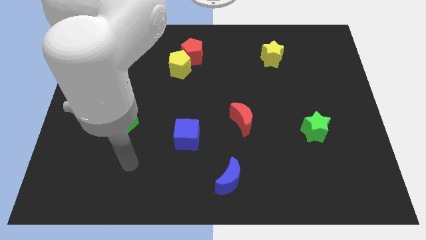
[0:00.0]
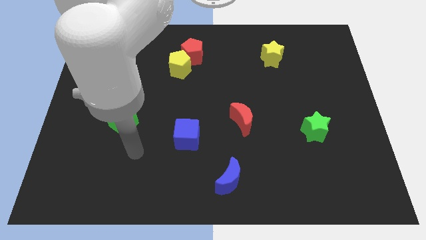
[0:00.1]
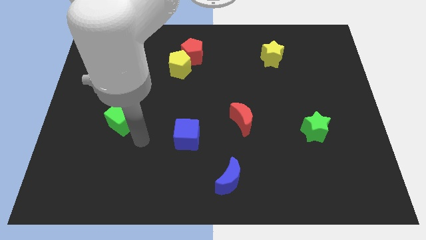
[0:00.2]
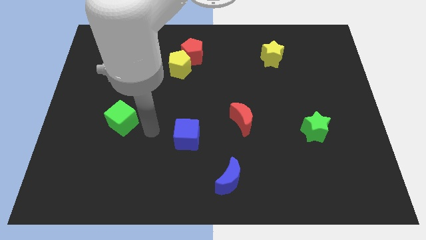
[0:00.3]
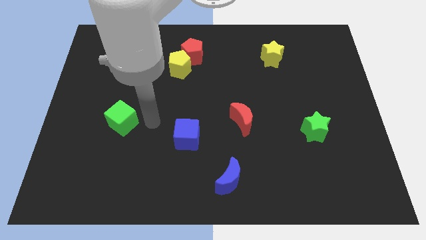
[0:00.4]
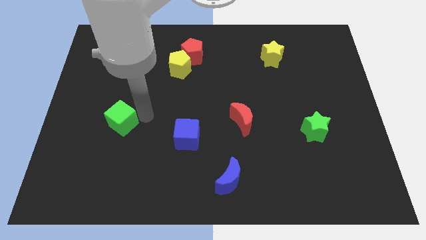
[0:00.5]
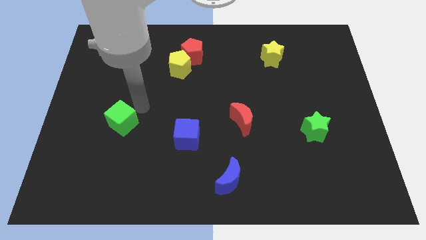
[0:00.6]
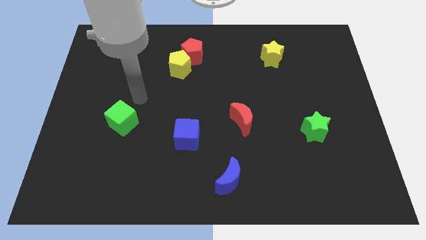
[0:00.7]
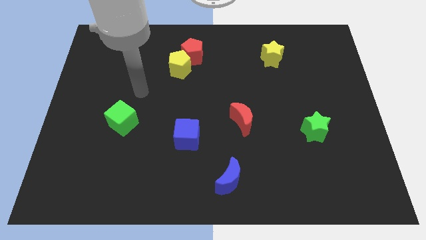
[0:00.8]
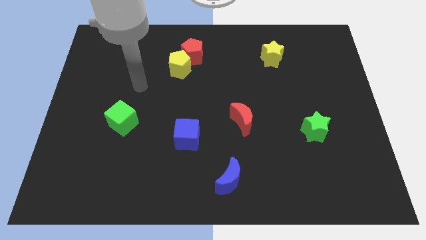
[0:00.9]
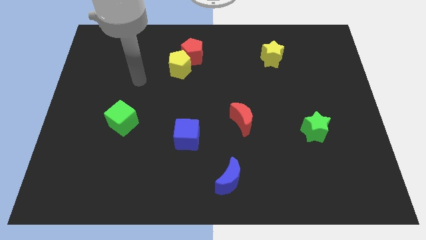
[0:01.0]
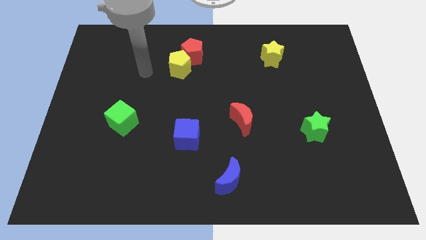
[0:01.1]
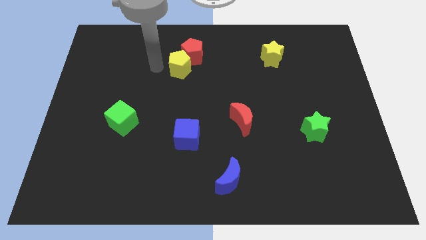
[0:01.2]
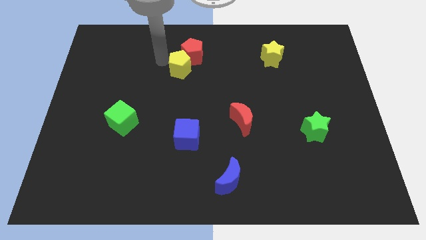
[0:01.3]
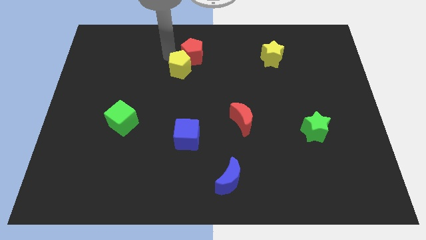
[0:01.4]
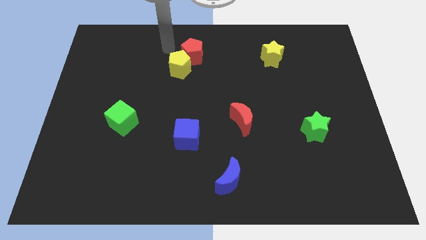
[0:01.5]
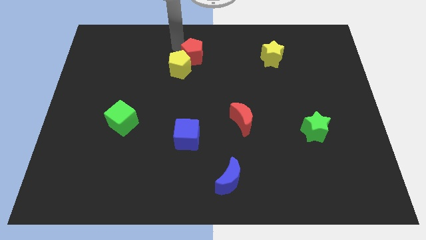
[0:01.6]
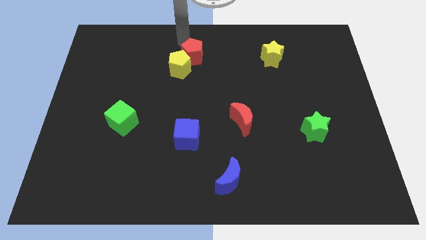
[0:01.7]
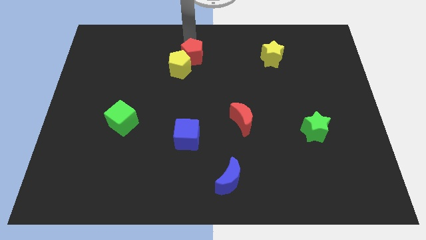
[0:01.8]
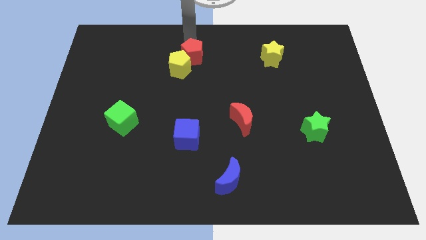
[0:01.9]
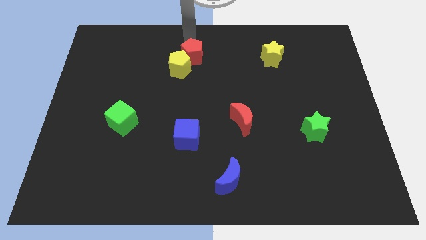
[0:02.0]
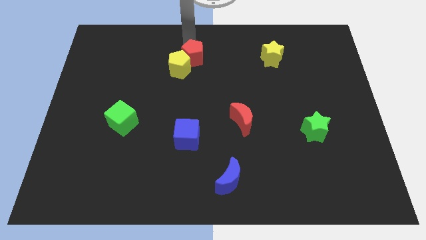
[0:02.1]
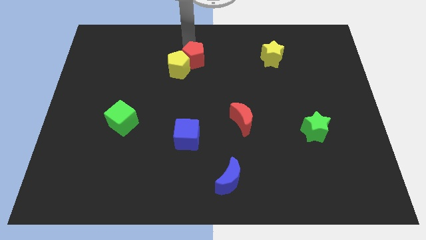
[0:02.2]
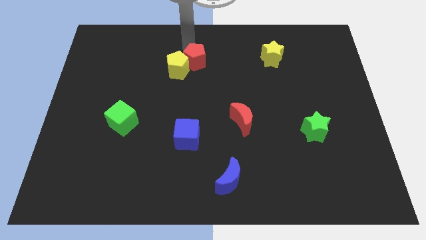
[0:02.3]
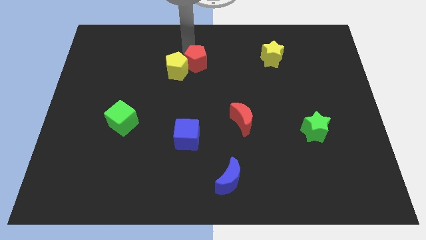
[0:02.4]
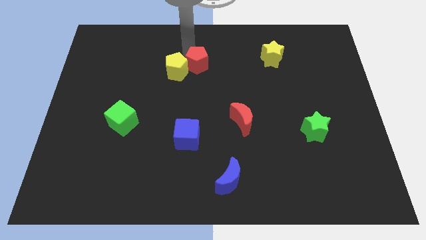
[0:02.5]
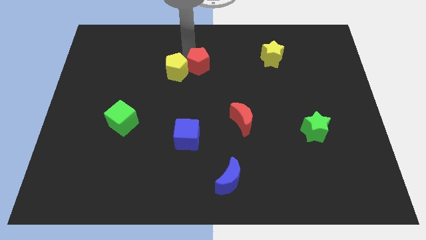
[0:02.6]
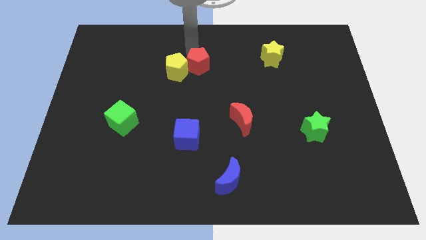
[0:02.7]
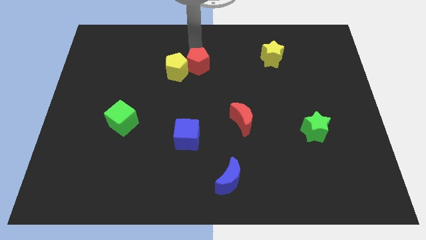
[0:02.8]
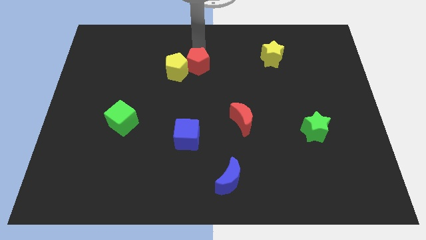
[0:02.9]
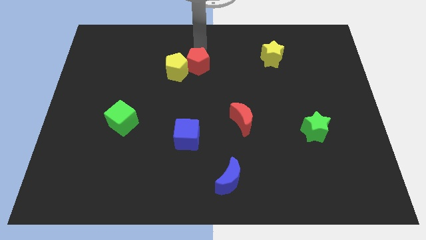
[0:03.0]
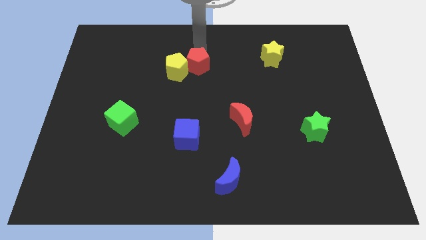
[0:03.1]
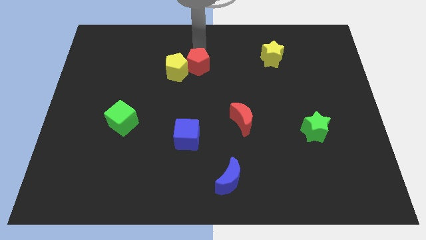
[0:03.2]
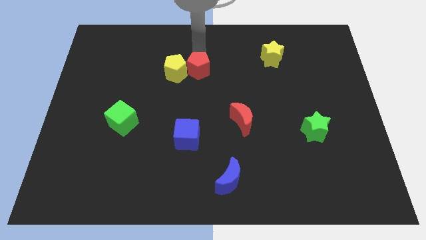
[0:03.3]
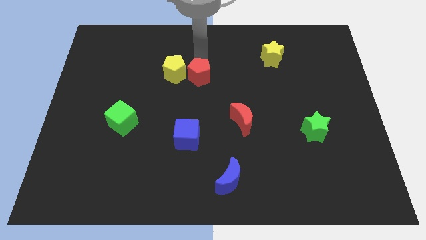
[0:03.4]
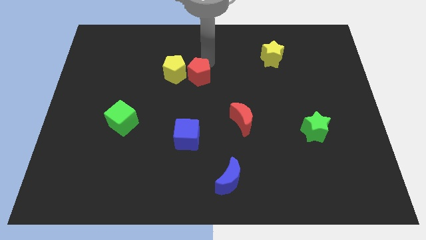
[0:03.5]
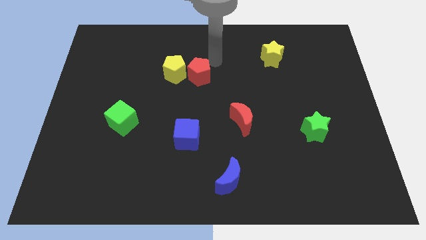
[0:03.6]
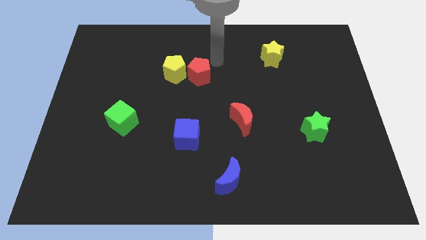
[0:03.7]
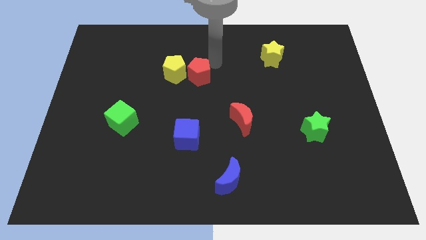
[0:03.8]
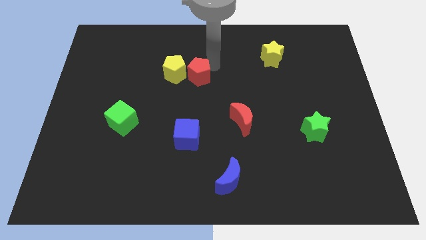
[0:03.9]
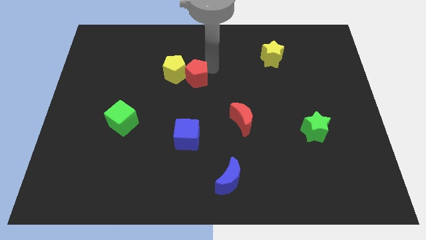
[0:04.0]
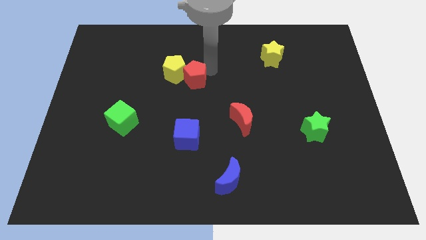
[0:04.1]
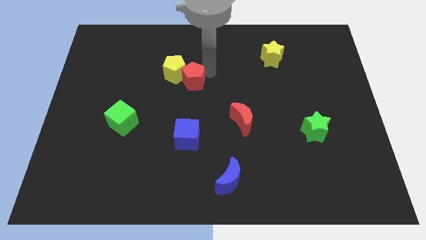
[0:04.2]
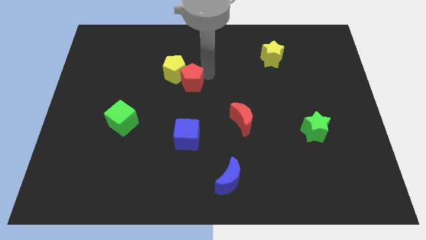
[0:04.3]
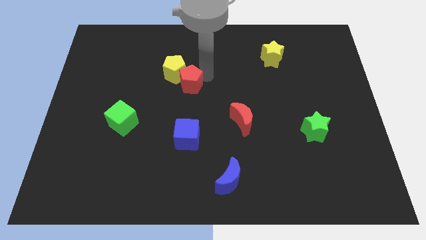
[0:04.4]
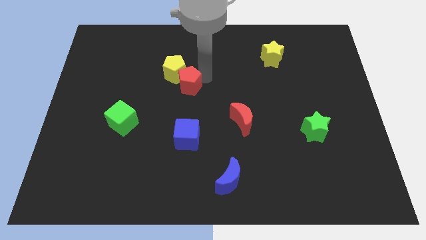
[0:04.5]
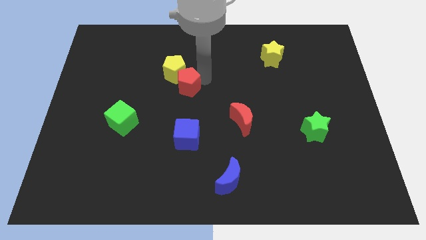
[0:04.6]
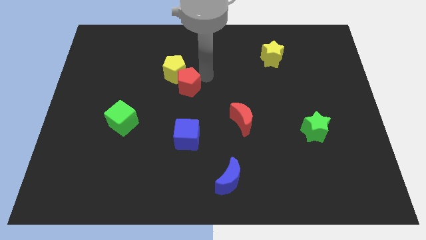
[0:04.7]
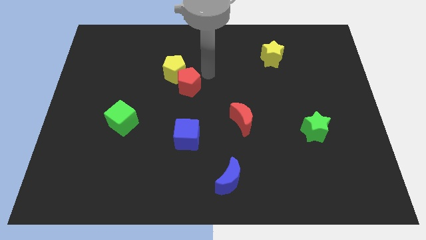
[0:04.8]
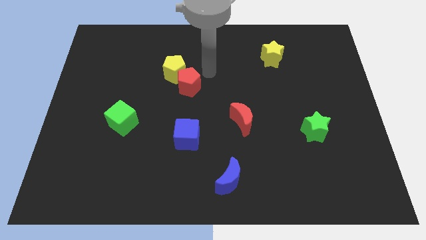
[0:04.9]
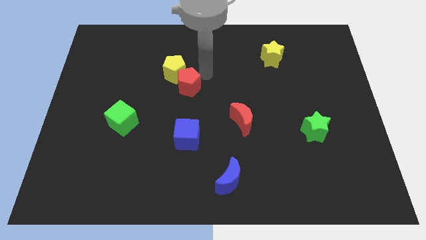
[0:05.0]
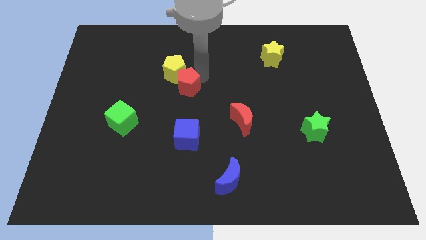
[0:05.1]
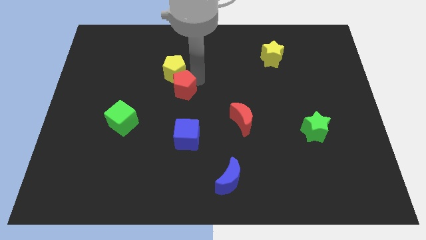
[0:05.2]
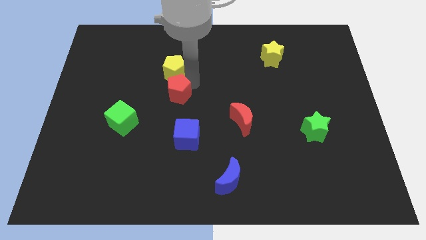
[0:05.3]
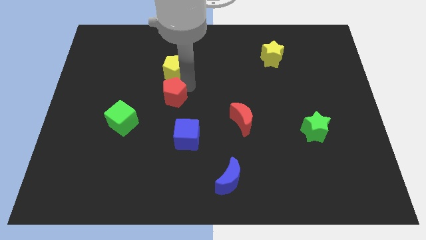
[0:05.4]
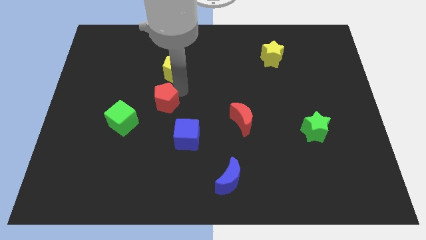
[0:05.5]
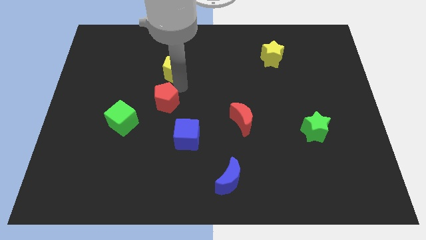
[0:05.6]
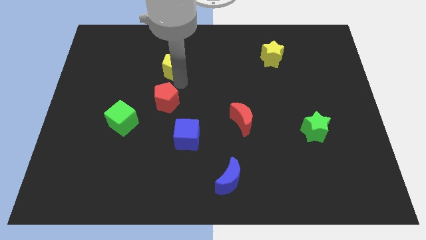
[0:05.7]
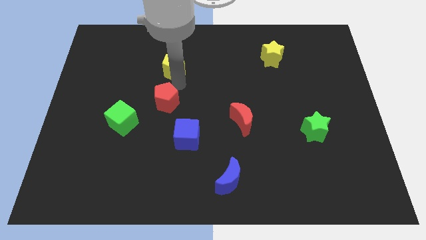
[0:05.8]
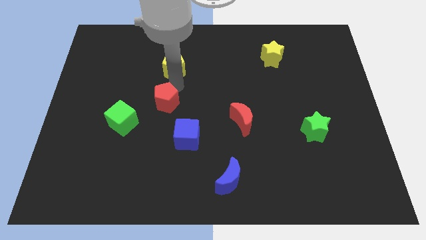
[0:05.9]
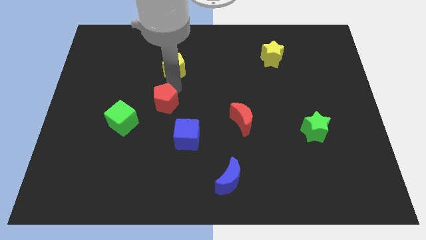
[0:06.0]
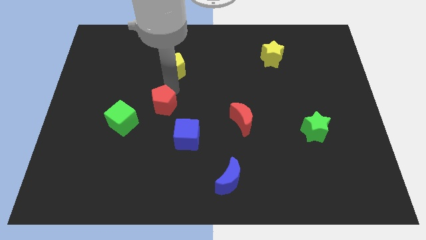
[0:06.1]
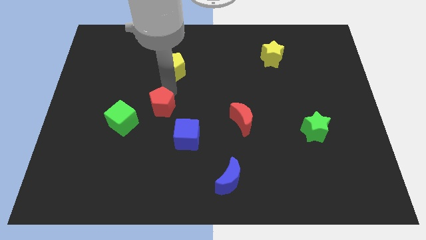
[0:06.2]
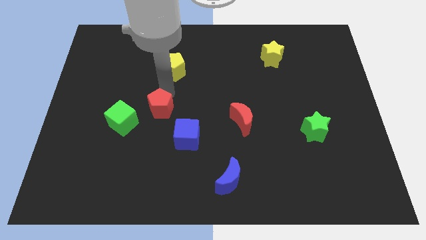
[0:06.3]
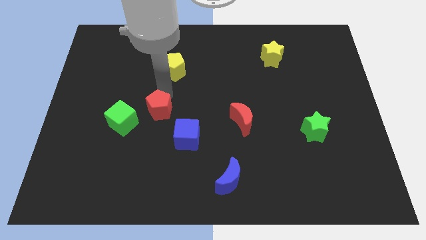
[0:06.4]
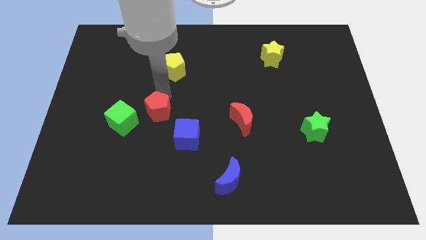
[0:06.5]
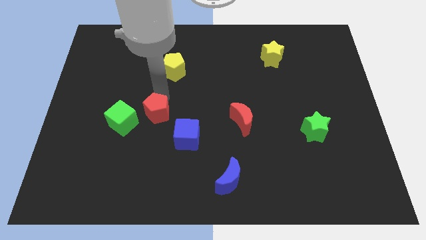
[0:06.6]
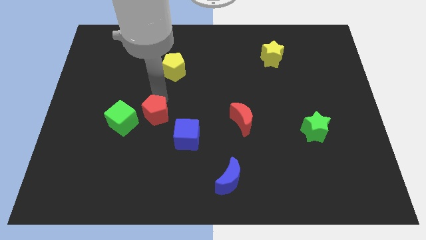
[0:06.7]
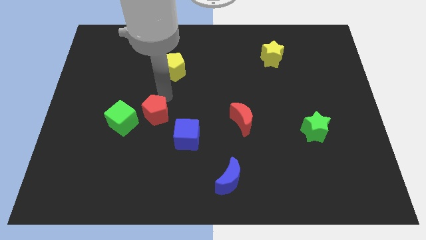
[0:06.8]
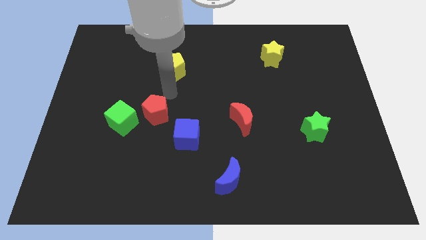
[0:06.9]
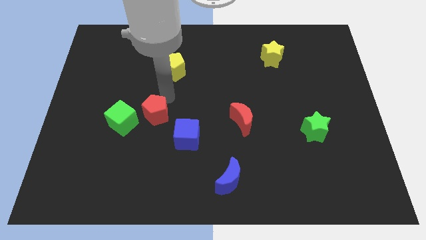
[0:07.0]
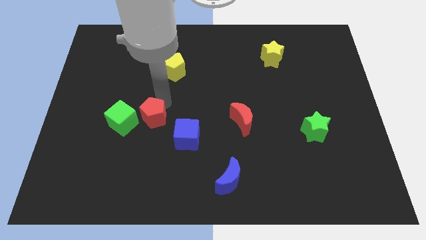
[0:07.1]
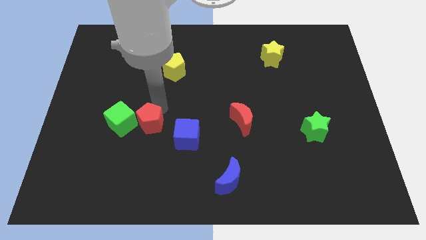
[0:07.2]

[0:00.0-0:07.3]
put the red pentagon to the left of the blue cube
